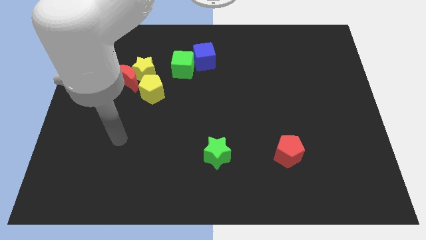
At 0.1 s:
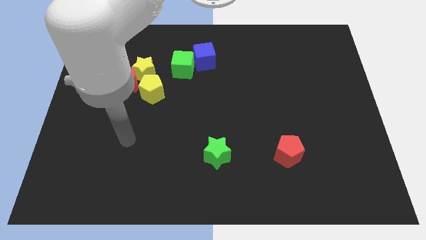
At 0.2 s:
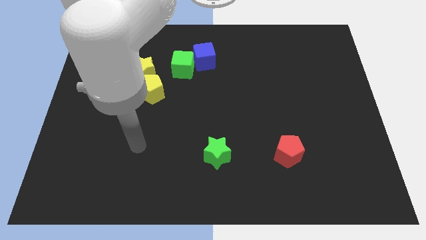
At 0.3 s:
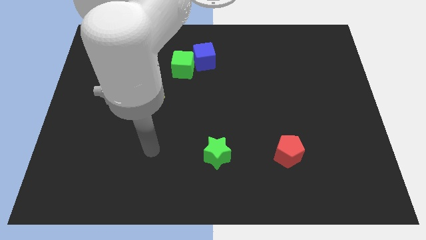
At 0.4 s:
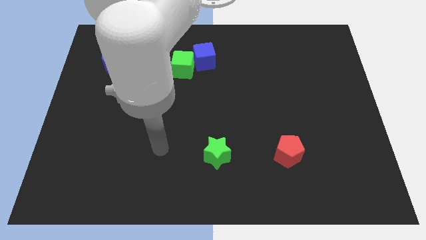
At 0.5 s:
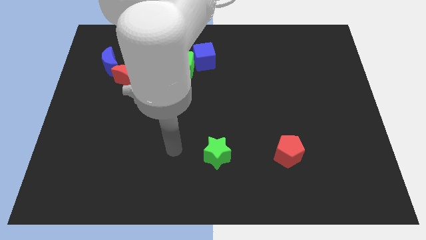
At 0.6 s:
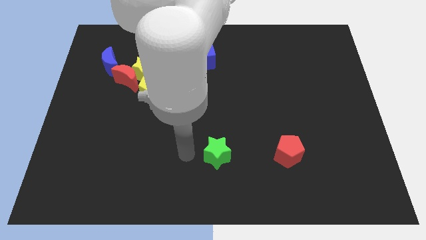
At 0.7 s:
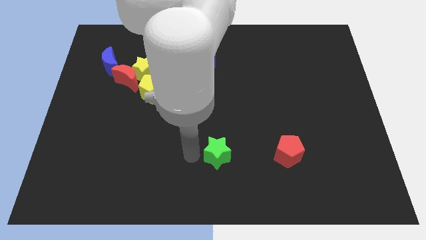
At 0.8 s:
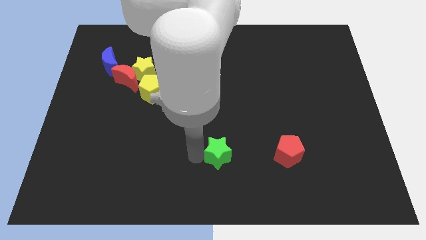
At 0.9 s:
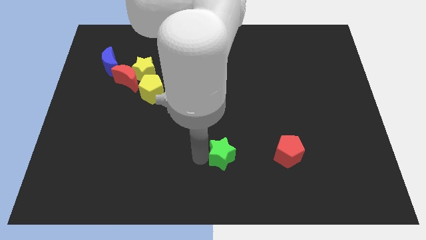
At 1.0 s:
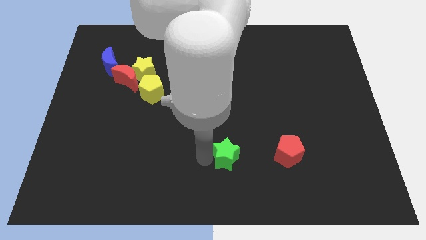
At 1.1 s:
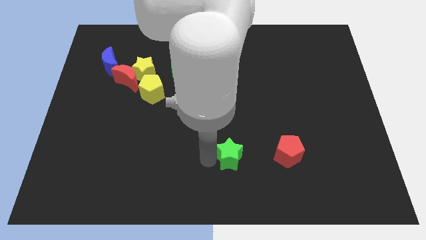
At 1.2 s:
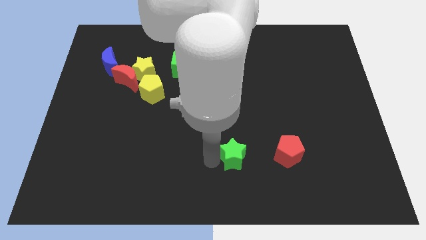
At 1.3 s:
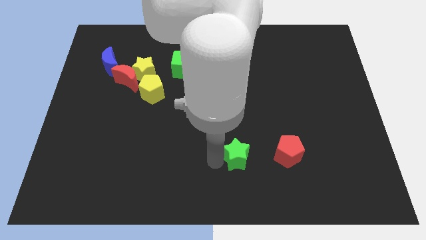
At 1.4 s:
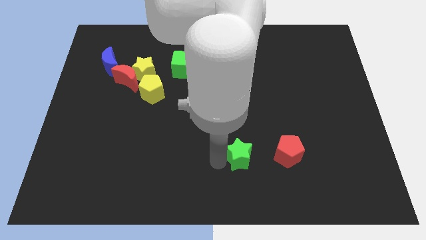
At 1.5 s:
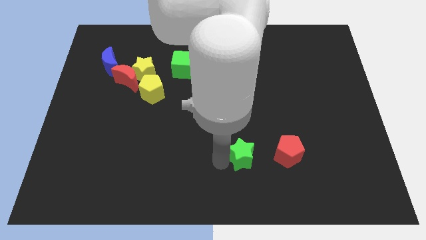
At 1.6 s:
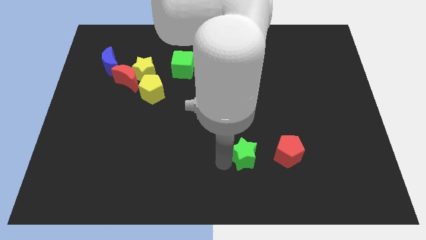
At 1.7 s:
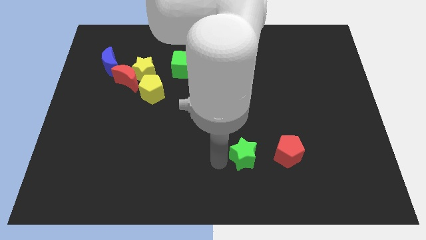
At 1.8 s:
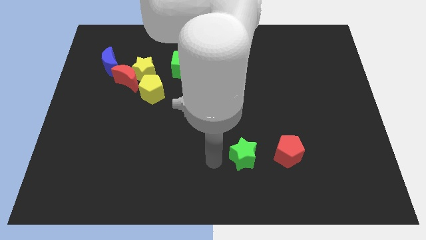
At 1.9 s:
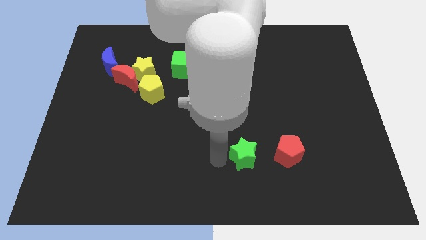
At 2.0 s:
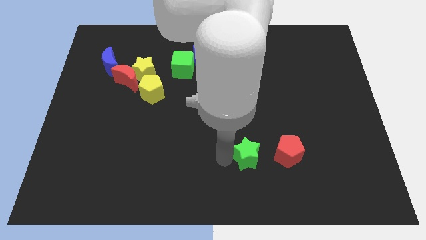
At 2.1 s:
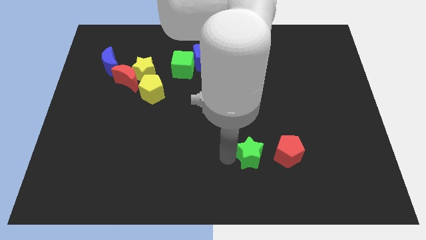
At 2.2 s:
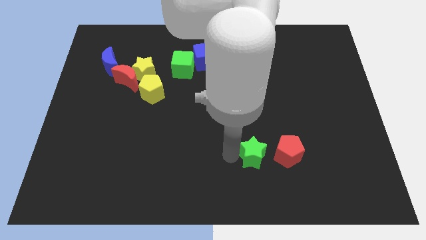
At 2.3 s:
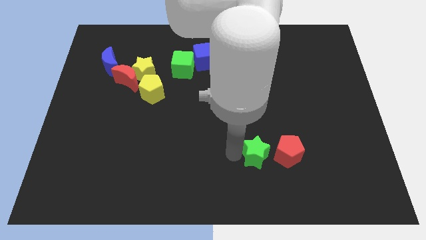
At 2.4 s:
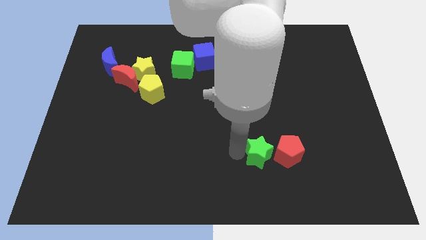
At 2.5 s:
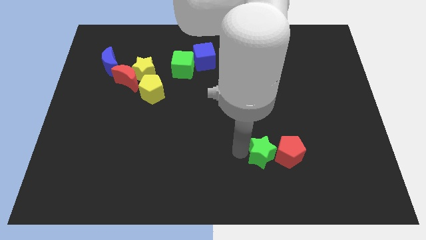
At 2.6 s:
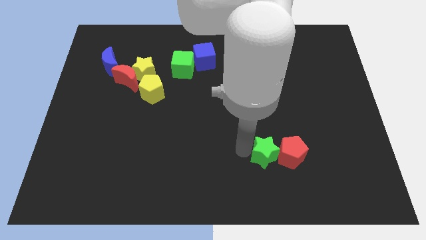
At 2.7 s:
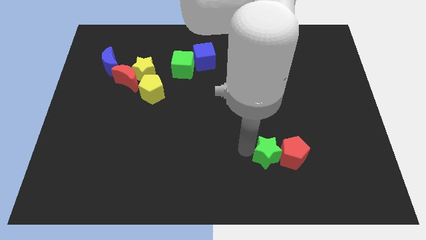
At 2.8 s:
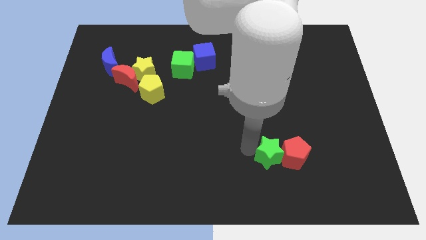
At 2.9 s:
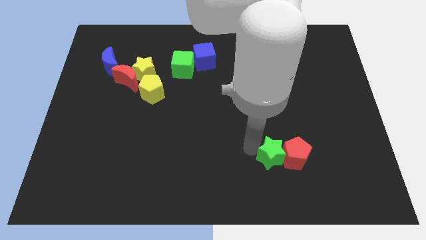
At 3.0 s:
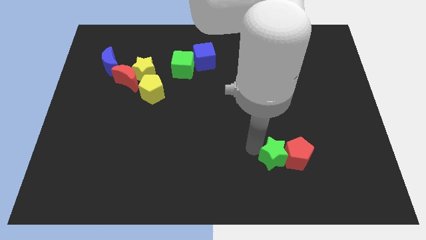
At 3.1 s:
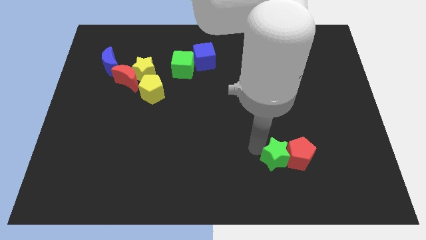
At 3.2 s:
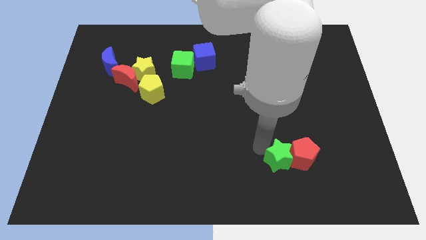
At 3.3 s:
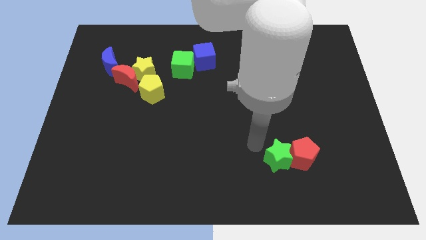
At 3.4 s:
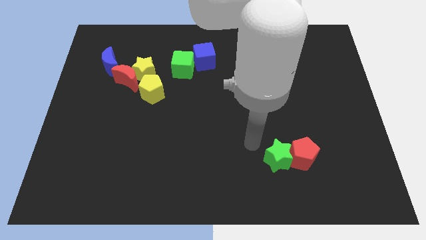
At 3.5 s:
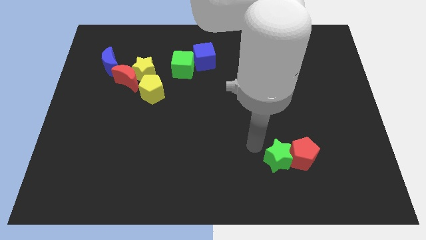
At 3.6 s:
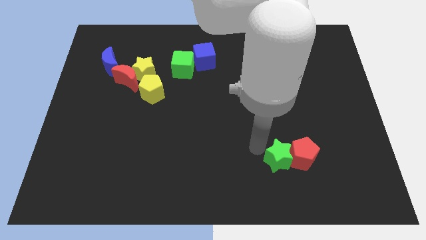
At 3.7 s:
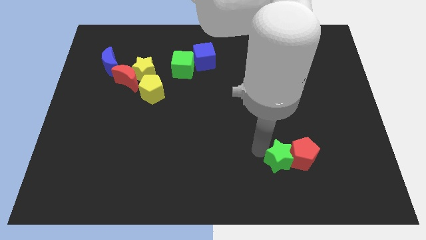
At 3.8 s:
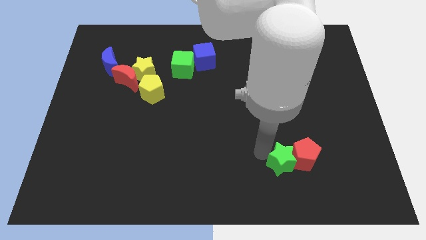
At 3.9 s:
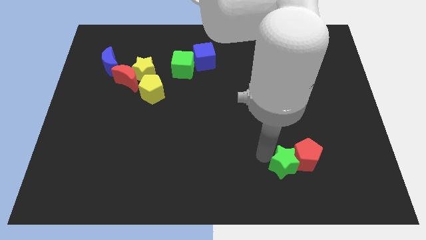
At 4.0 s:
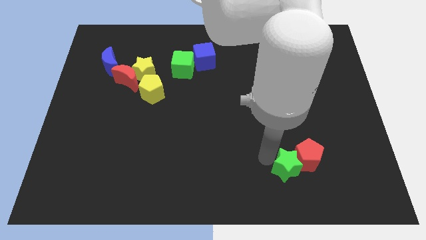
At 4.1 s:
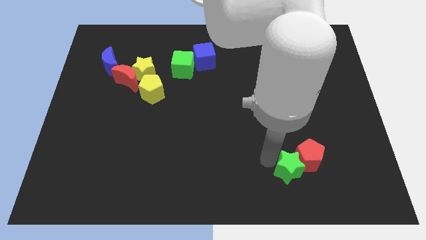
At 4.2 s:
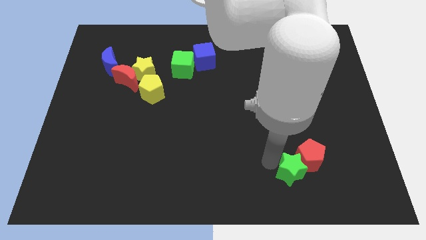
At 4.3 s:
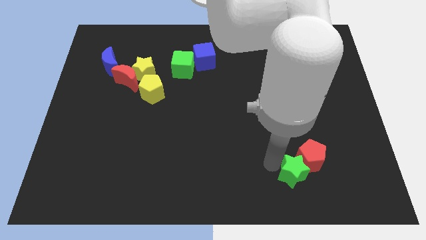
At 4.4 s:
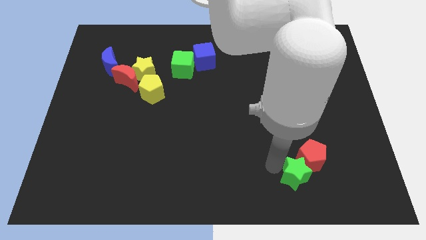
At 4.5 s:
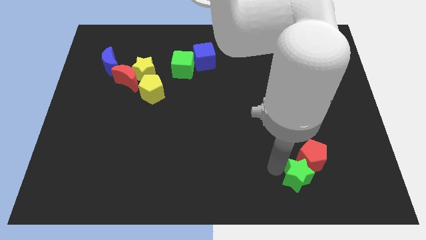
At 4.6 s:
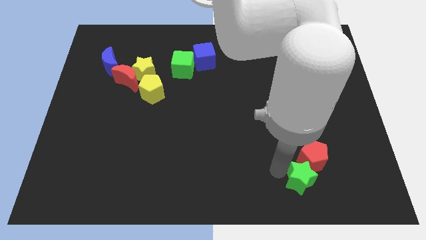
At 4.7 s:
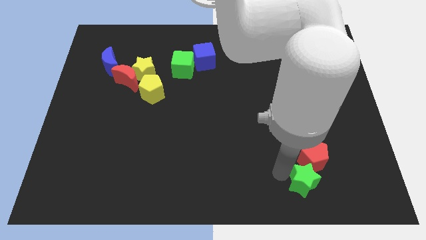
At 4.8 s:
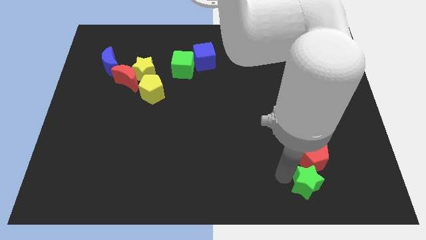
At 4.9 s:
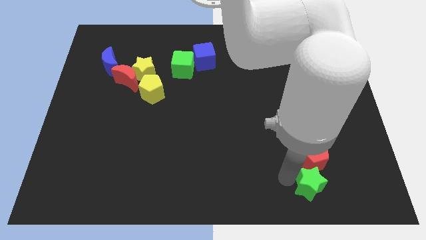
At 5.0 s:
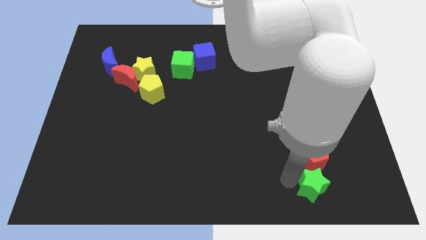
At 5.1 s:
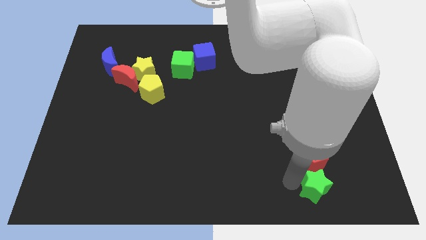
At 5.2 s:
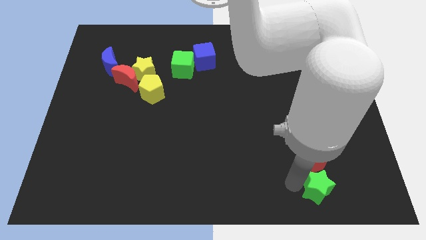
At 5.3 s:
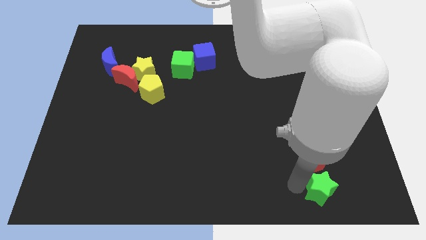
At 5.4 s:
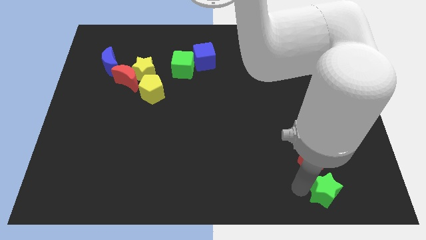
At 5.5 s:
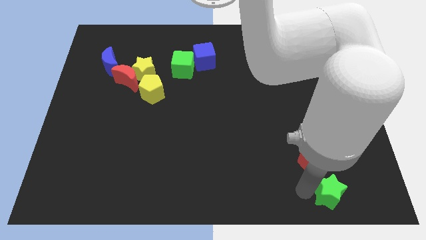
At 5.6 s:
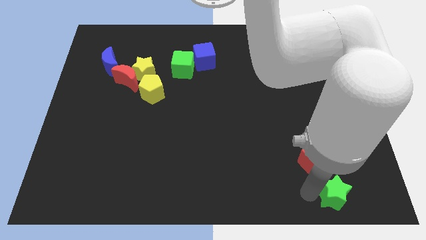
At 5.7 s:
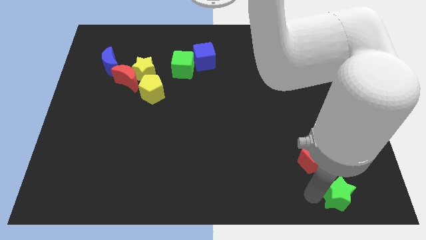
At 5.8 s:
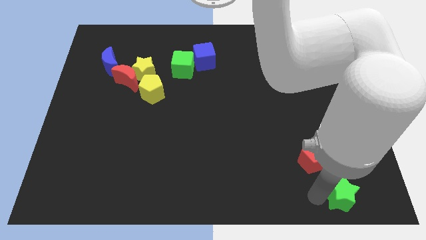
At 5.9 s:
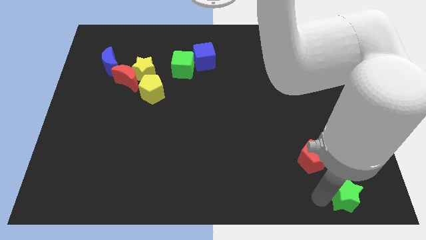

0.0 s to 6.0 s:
put the green star to the bottom right
